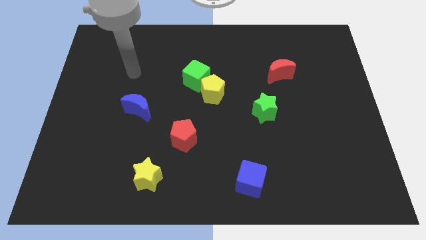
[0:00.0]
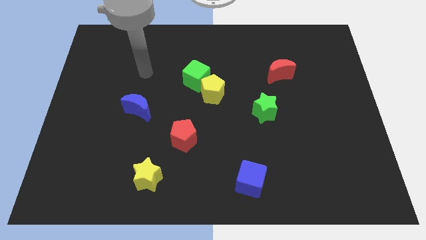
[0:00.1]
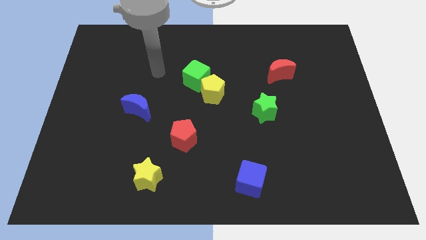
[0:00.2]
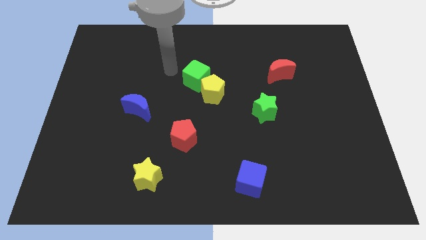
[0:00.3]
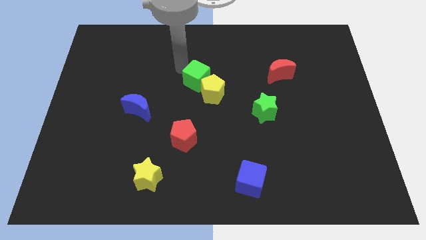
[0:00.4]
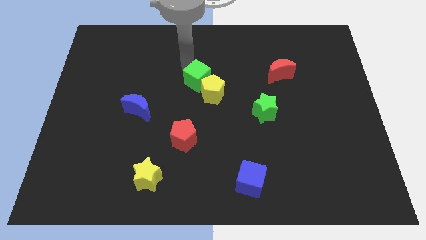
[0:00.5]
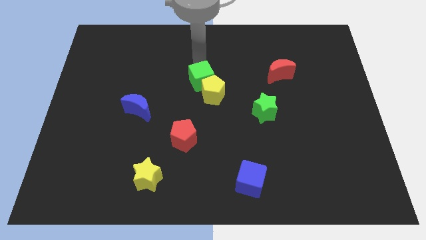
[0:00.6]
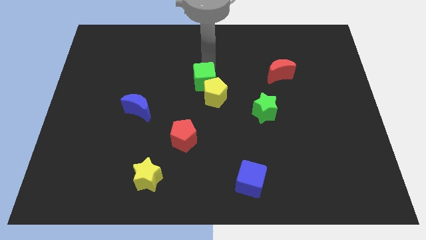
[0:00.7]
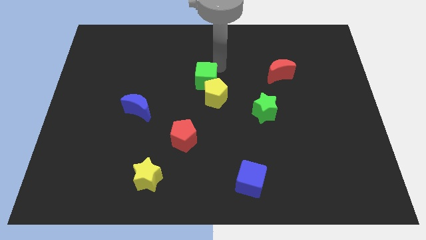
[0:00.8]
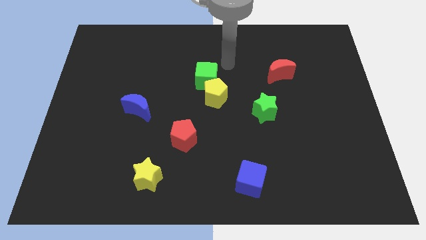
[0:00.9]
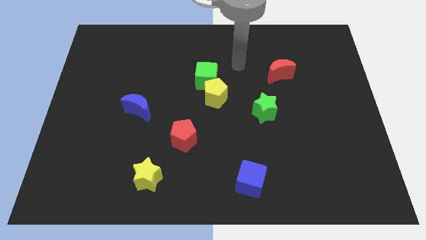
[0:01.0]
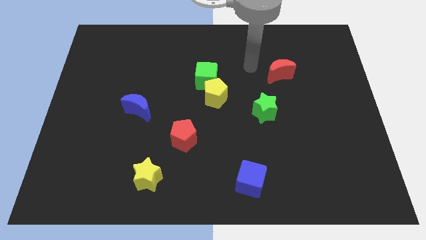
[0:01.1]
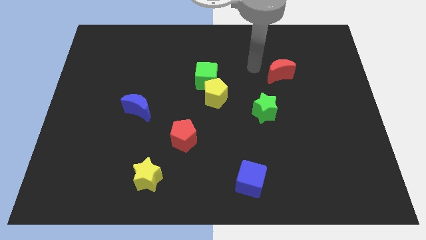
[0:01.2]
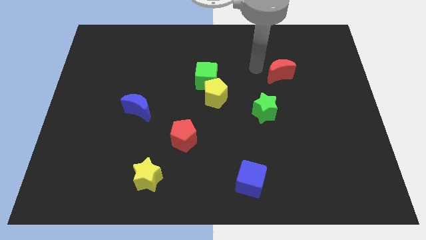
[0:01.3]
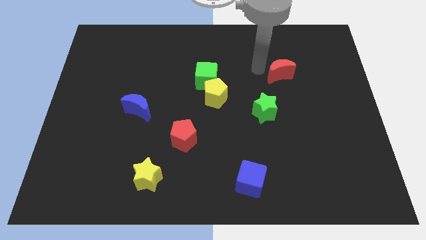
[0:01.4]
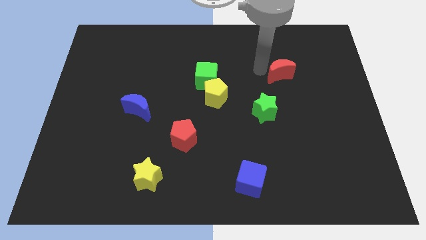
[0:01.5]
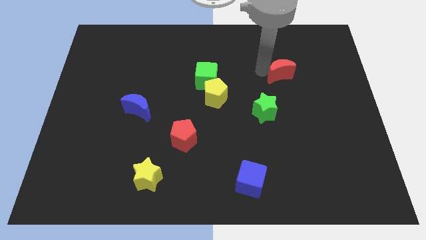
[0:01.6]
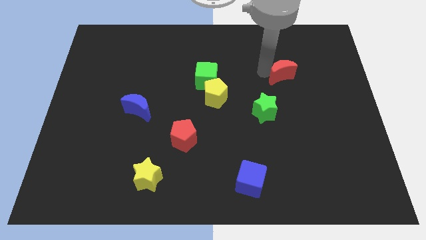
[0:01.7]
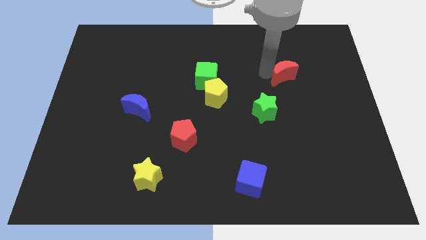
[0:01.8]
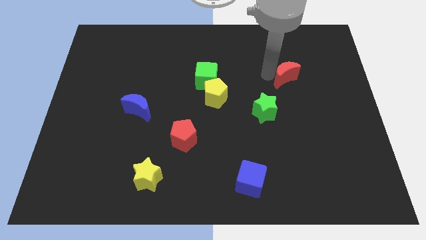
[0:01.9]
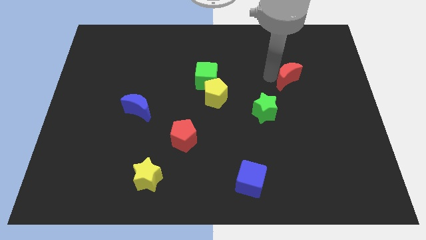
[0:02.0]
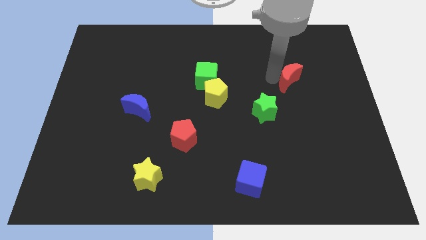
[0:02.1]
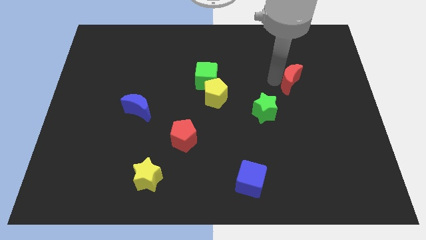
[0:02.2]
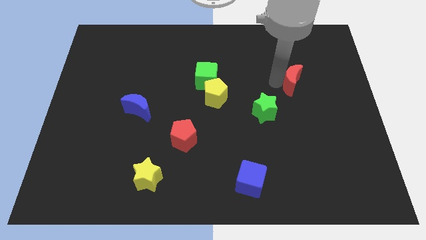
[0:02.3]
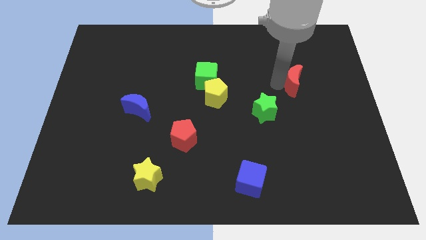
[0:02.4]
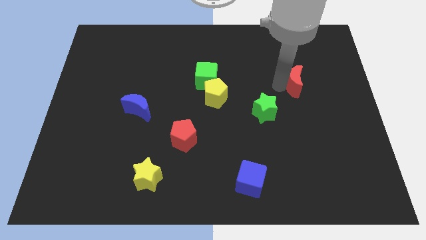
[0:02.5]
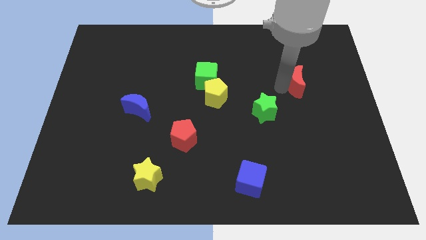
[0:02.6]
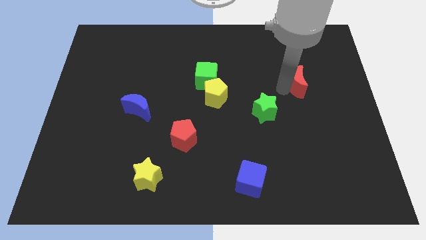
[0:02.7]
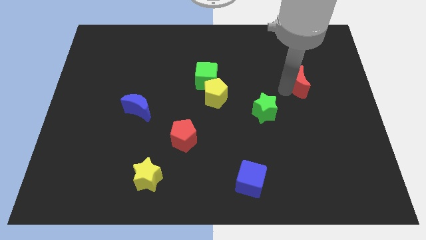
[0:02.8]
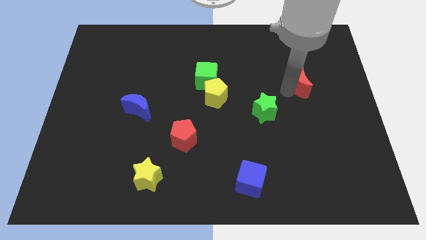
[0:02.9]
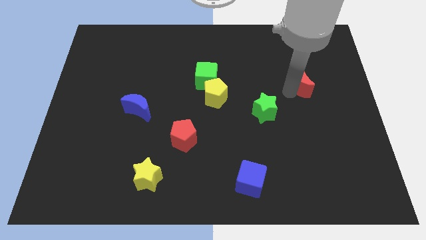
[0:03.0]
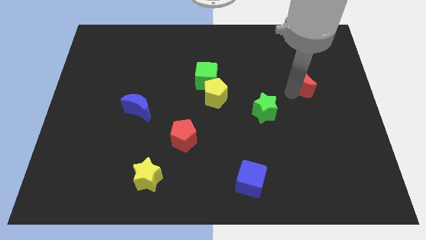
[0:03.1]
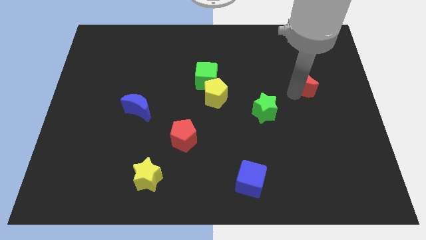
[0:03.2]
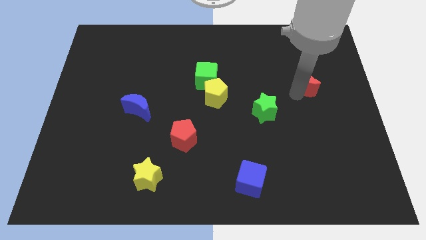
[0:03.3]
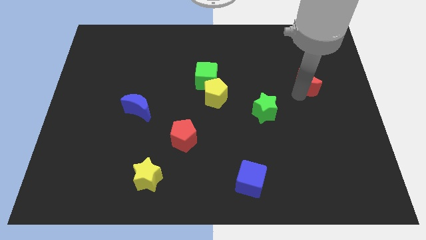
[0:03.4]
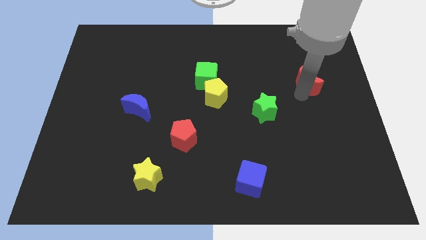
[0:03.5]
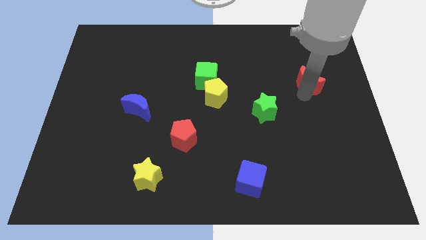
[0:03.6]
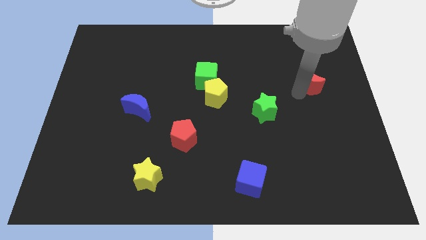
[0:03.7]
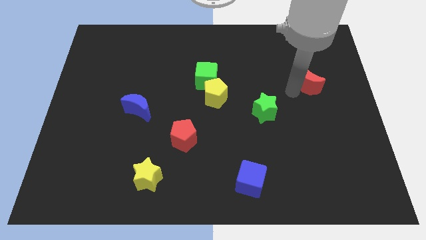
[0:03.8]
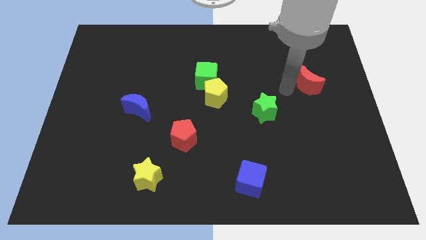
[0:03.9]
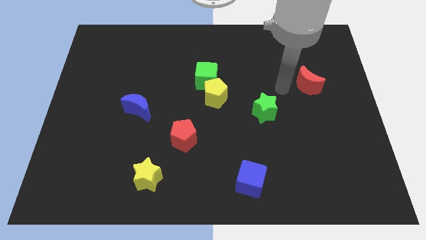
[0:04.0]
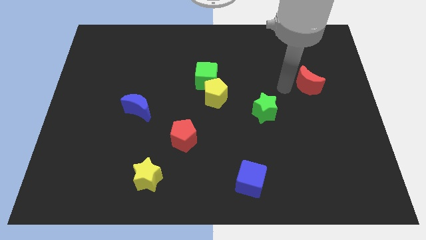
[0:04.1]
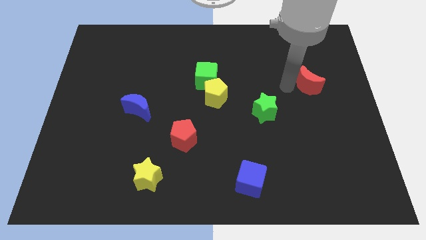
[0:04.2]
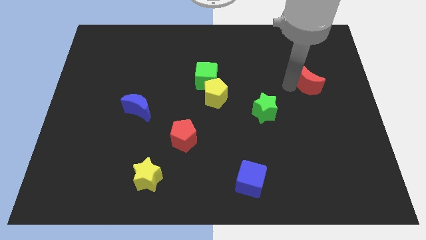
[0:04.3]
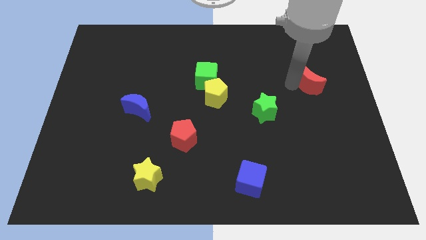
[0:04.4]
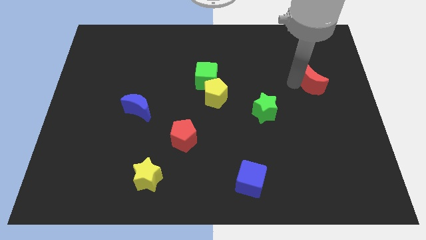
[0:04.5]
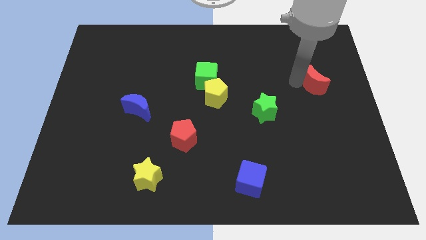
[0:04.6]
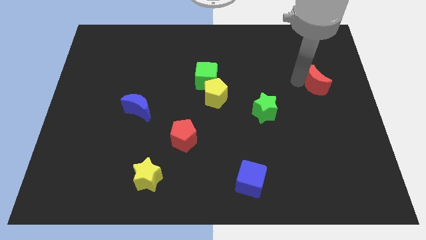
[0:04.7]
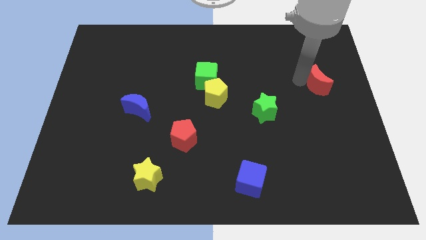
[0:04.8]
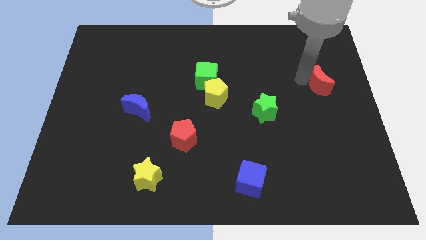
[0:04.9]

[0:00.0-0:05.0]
push the red moon to the center right

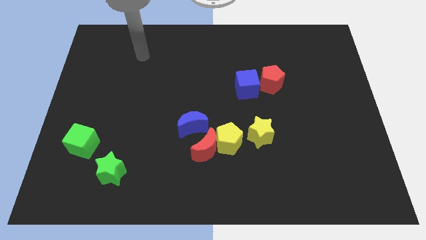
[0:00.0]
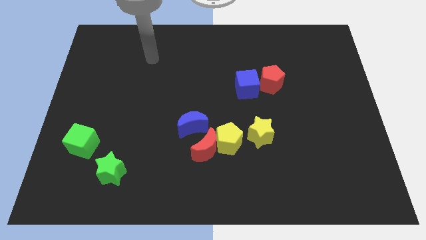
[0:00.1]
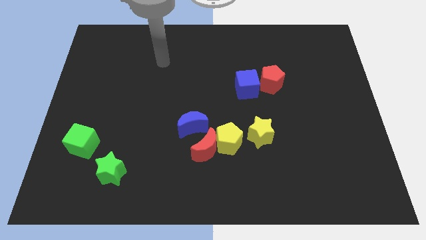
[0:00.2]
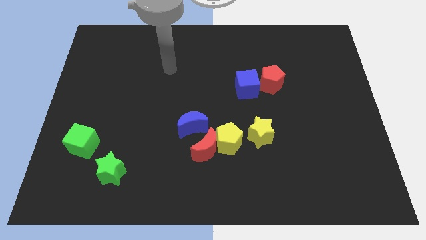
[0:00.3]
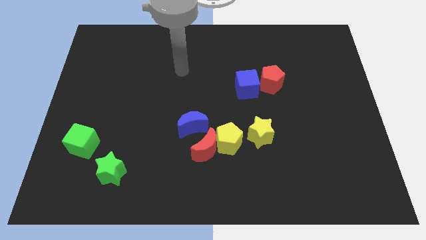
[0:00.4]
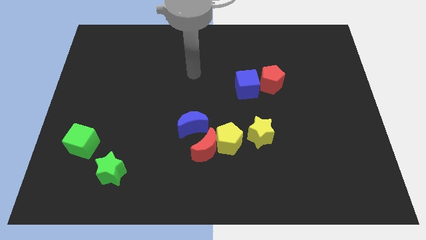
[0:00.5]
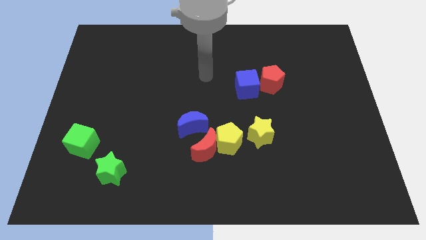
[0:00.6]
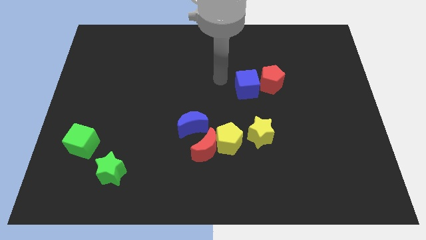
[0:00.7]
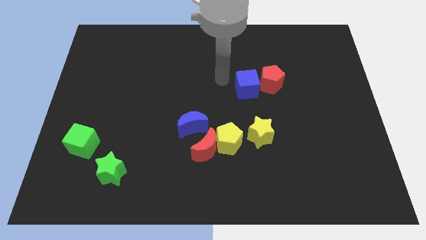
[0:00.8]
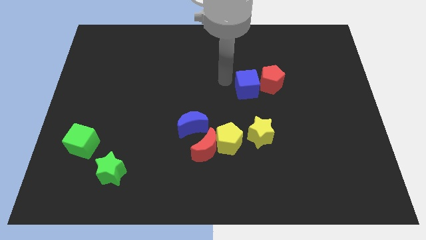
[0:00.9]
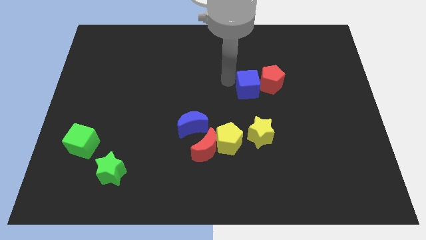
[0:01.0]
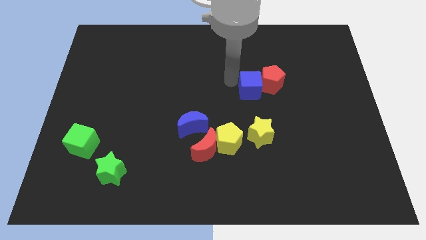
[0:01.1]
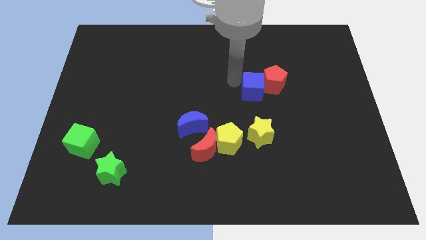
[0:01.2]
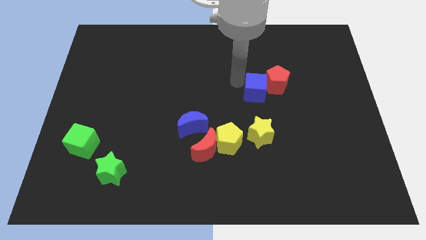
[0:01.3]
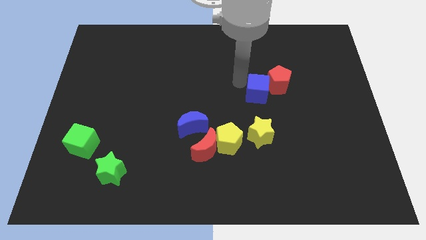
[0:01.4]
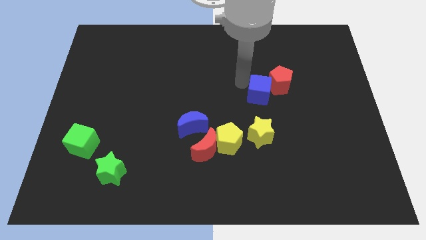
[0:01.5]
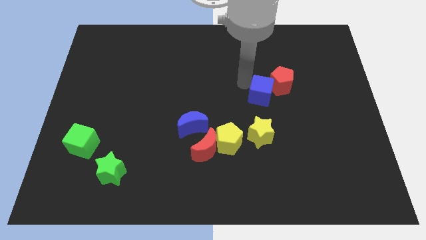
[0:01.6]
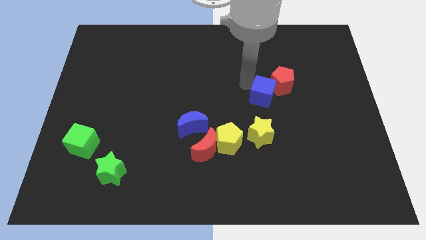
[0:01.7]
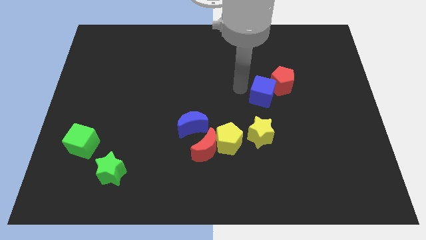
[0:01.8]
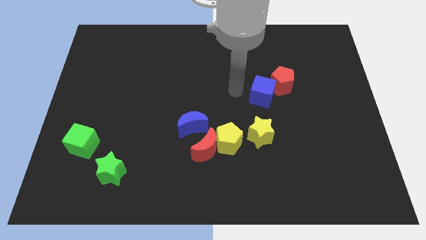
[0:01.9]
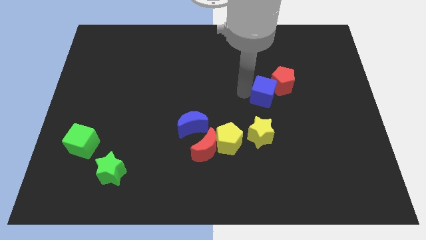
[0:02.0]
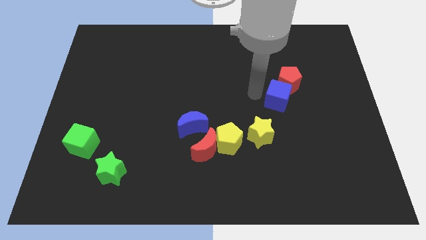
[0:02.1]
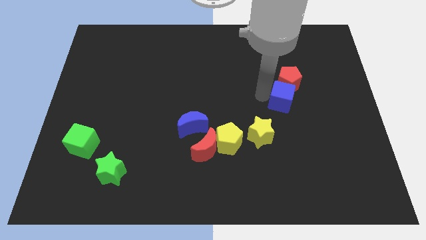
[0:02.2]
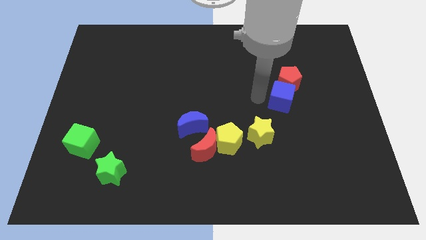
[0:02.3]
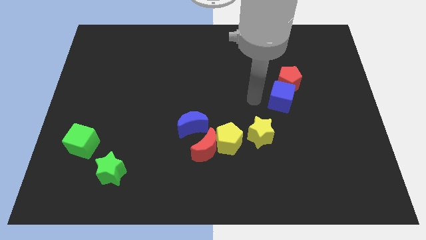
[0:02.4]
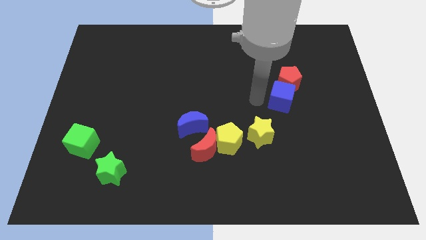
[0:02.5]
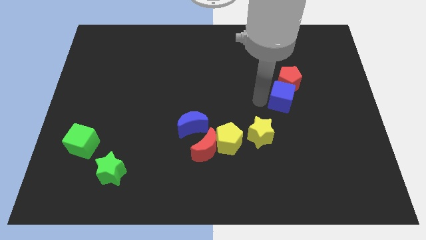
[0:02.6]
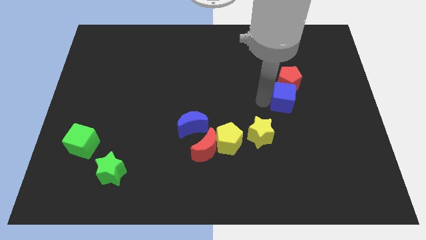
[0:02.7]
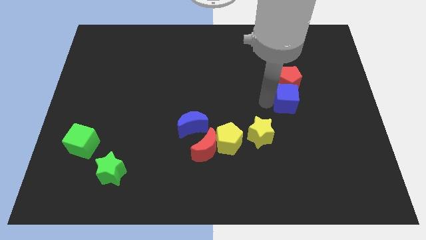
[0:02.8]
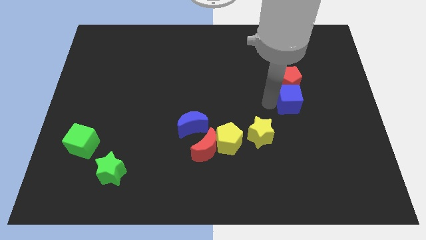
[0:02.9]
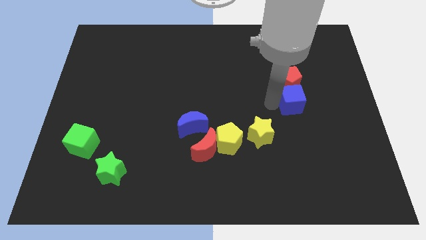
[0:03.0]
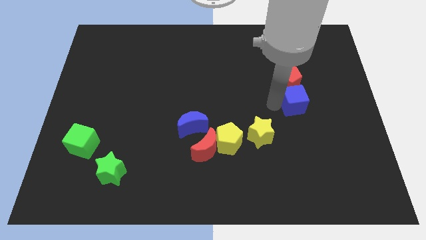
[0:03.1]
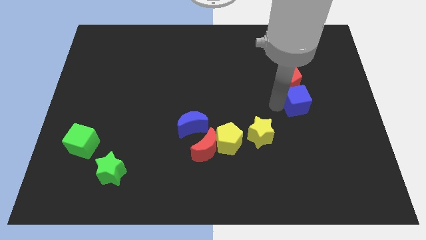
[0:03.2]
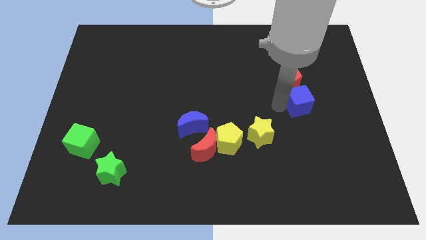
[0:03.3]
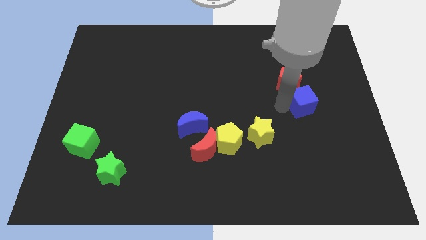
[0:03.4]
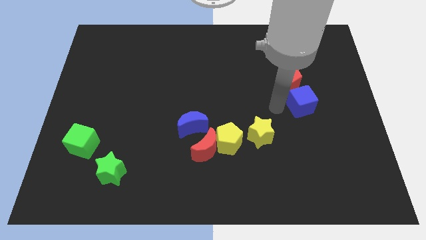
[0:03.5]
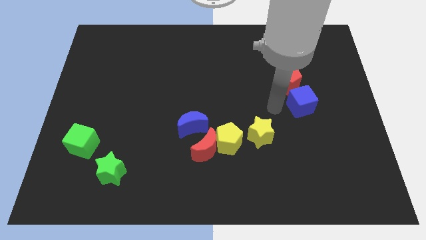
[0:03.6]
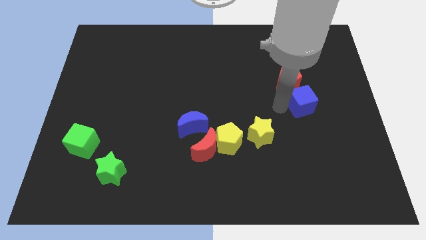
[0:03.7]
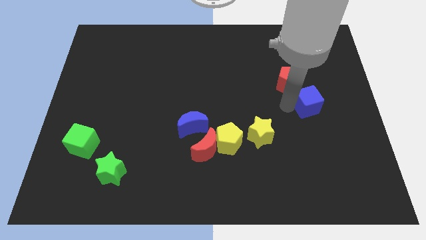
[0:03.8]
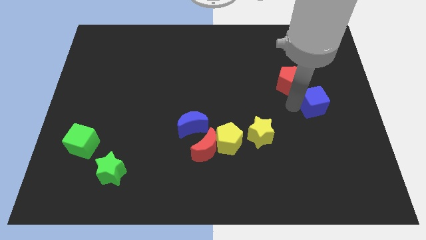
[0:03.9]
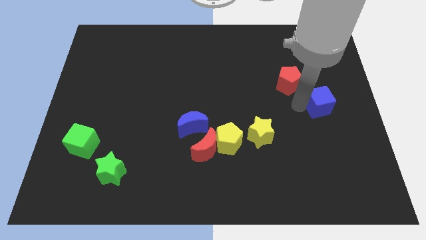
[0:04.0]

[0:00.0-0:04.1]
put the blue cube to the right side of the board
